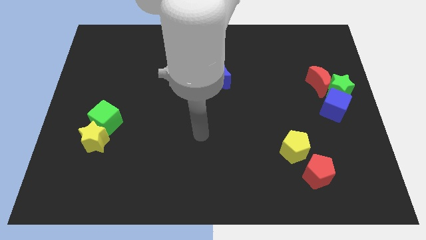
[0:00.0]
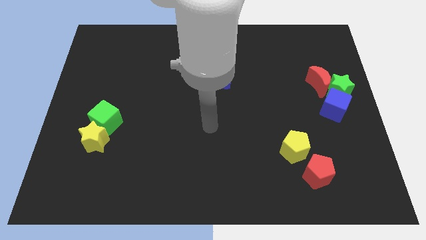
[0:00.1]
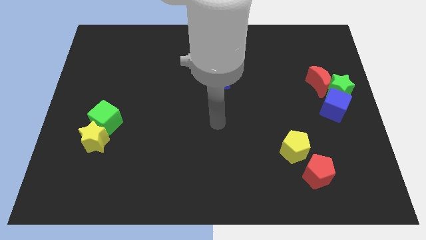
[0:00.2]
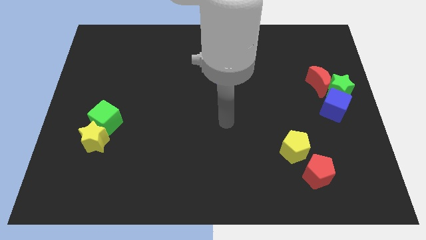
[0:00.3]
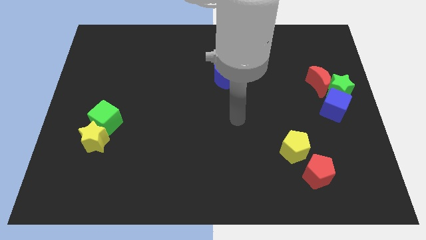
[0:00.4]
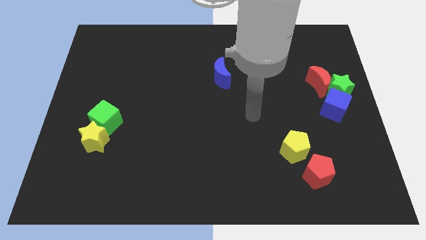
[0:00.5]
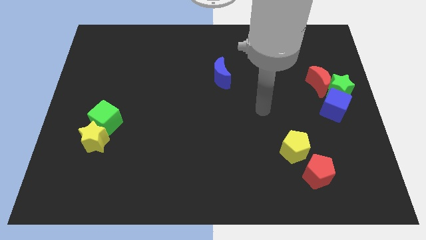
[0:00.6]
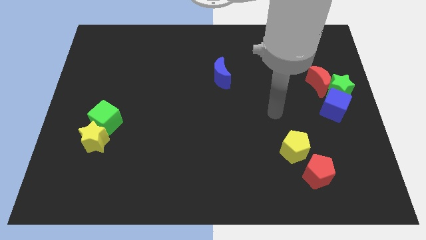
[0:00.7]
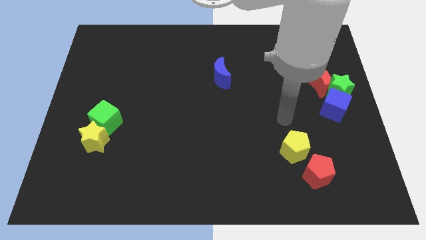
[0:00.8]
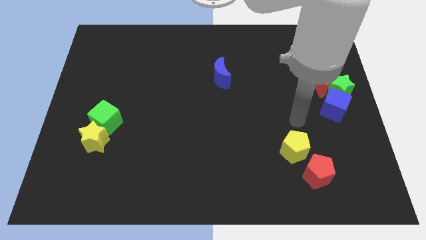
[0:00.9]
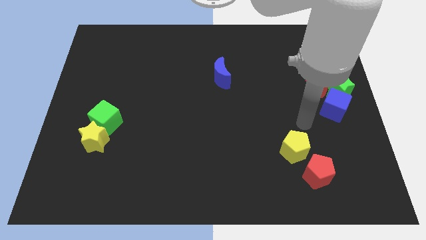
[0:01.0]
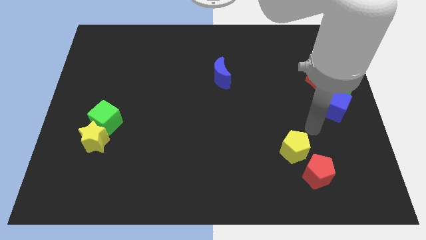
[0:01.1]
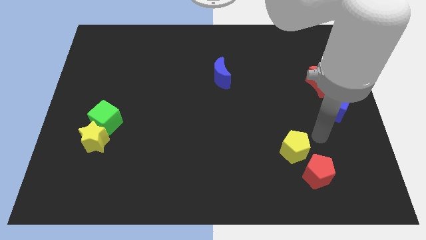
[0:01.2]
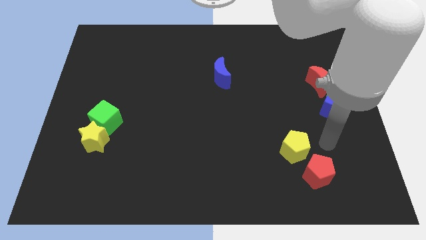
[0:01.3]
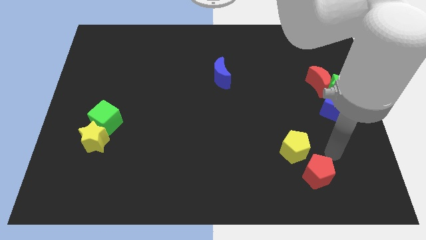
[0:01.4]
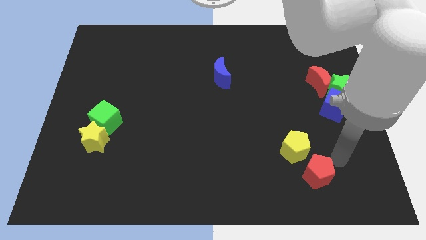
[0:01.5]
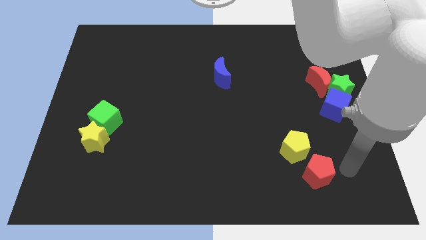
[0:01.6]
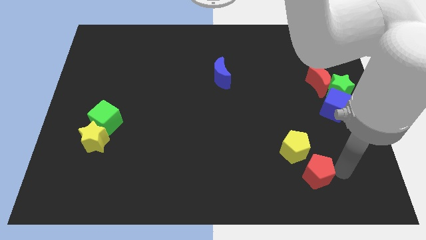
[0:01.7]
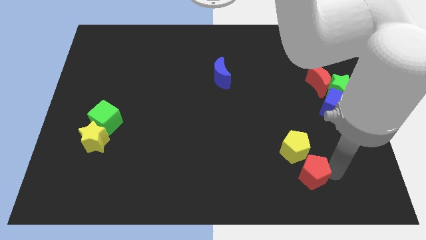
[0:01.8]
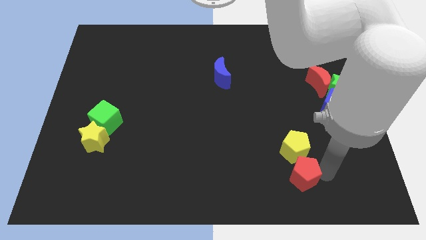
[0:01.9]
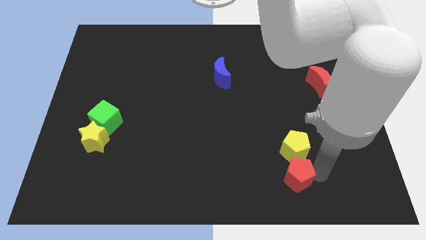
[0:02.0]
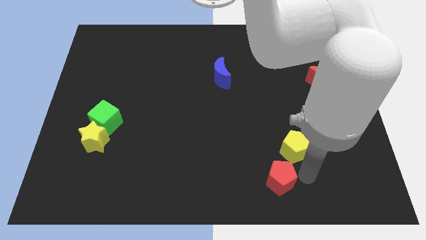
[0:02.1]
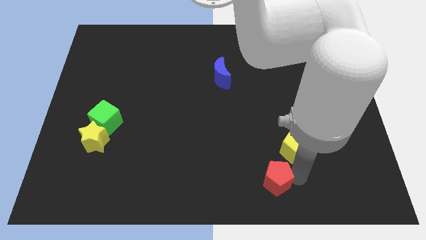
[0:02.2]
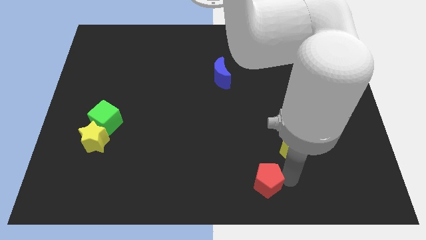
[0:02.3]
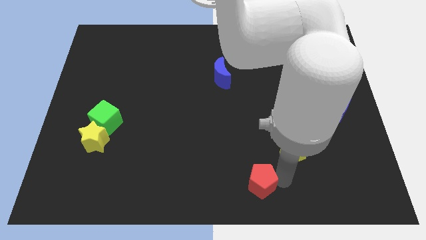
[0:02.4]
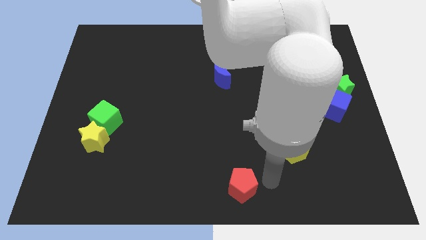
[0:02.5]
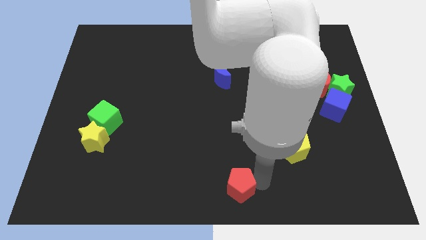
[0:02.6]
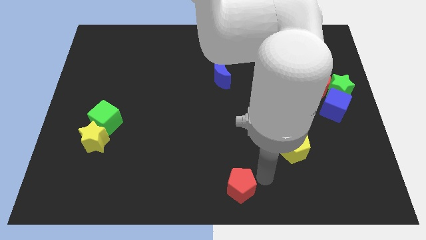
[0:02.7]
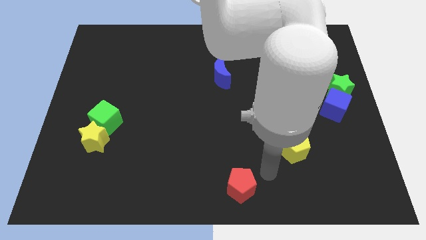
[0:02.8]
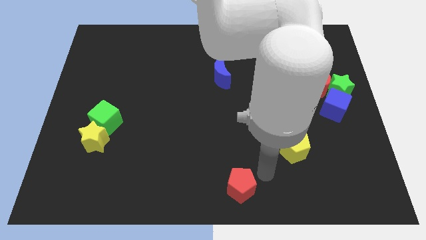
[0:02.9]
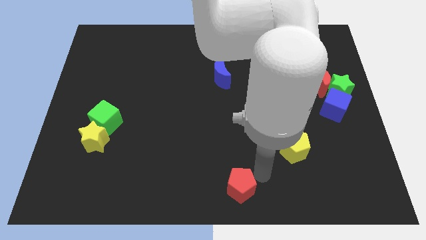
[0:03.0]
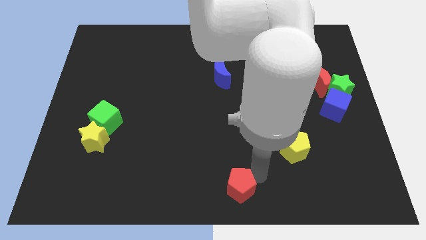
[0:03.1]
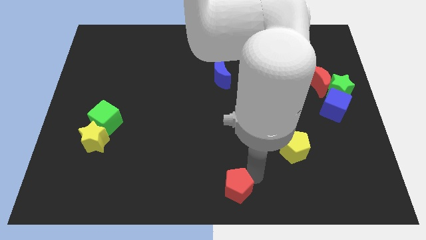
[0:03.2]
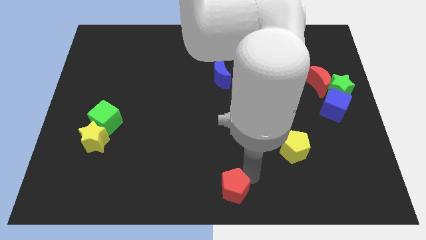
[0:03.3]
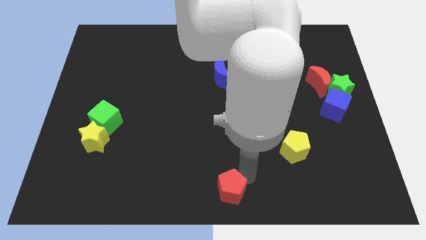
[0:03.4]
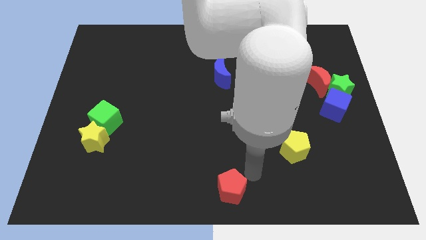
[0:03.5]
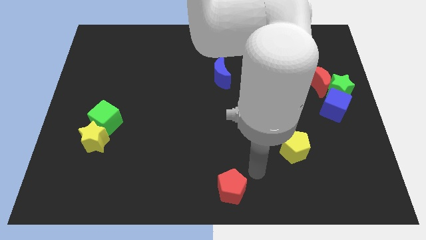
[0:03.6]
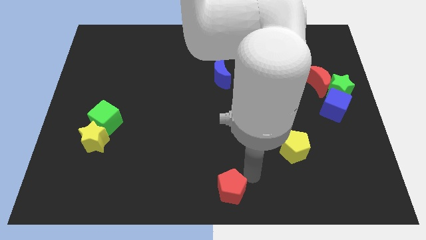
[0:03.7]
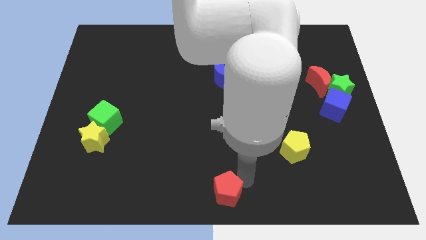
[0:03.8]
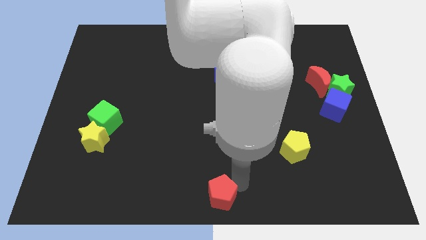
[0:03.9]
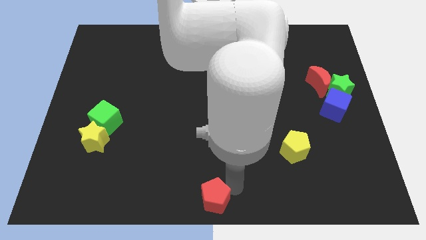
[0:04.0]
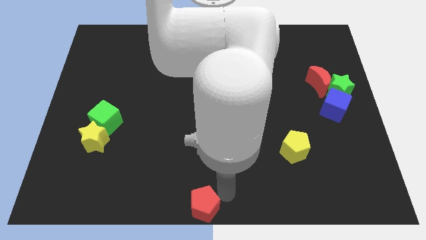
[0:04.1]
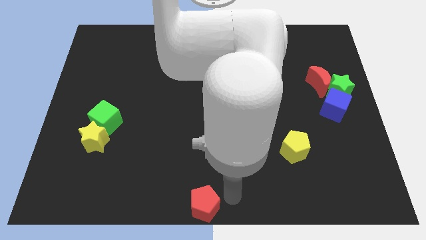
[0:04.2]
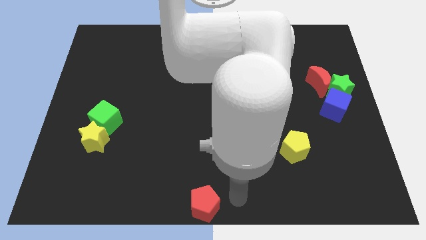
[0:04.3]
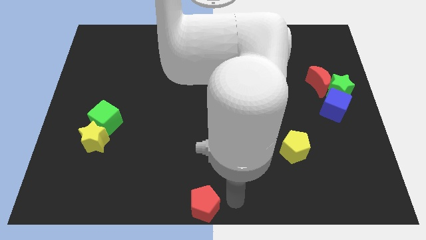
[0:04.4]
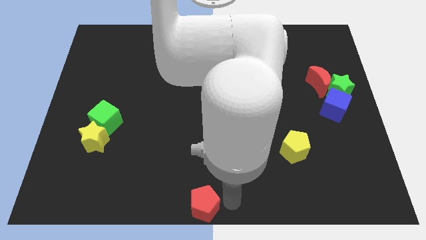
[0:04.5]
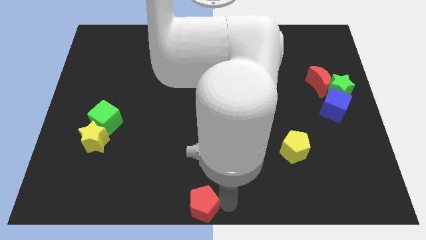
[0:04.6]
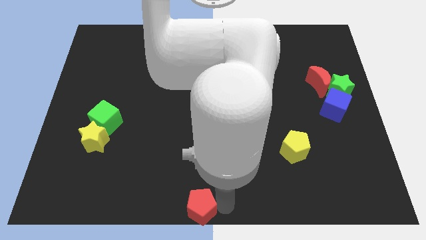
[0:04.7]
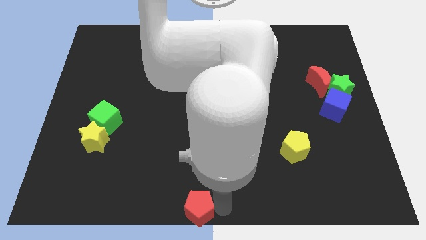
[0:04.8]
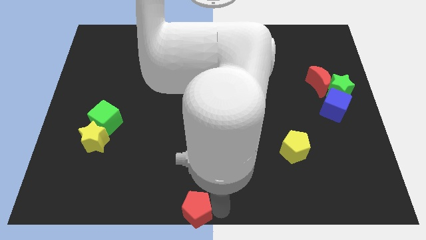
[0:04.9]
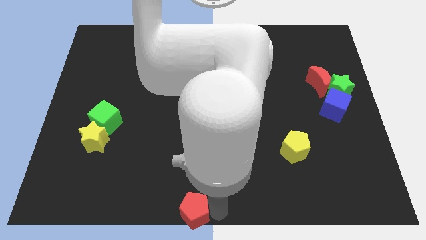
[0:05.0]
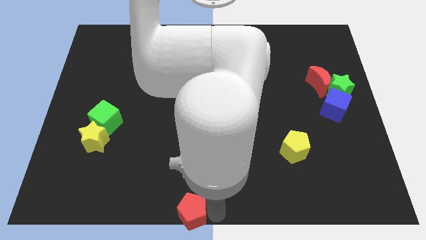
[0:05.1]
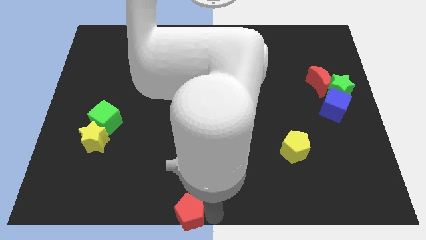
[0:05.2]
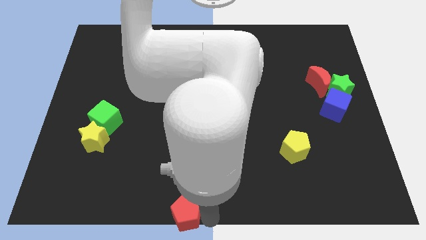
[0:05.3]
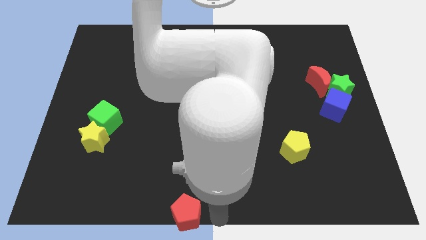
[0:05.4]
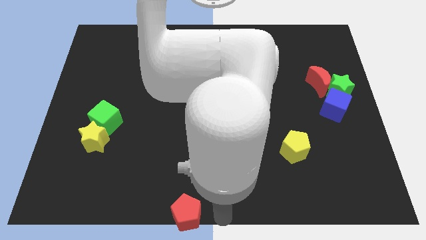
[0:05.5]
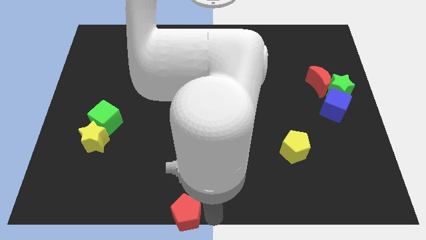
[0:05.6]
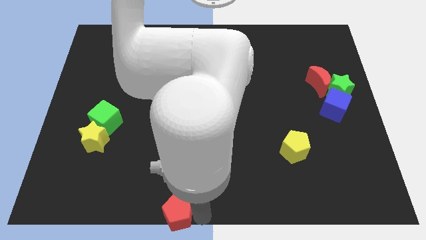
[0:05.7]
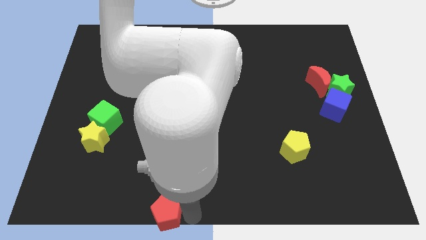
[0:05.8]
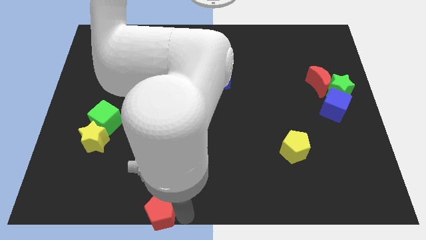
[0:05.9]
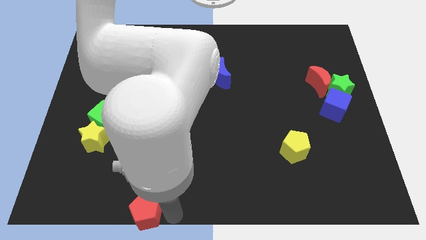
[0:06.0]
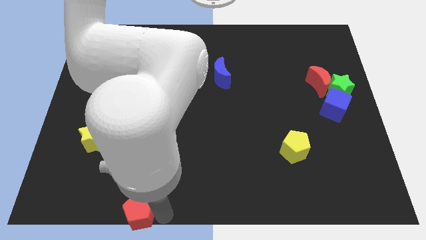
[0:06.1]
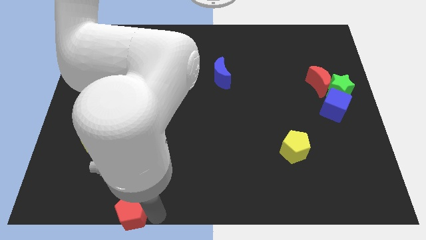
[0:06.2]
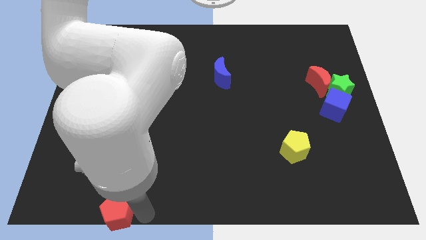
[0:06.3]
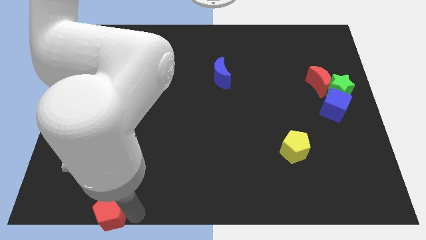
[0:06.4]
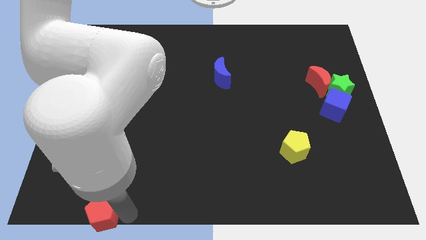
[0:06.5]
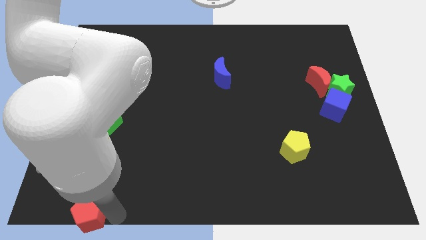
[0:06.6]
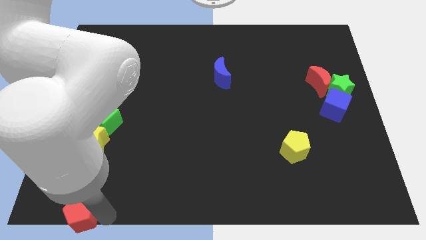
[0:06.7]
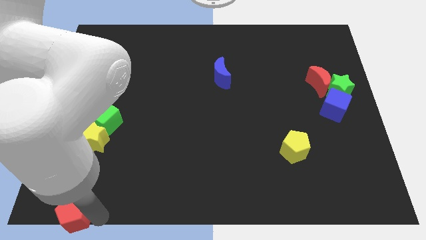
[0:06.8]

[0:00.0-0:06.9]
push the red pentagon to the lower left corner
